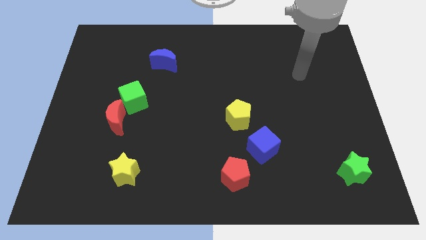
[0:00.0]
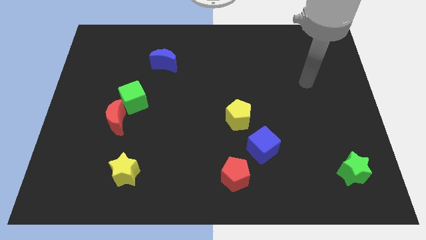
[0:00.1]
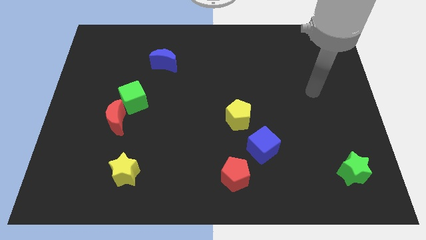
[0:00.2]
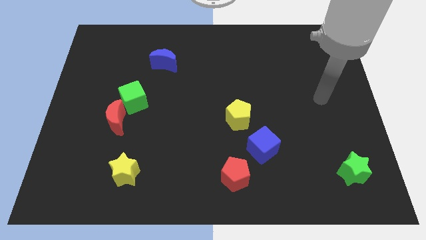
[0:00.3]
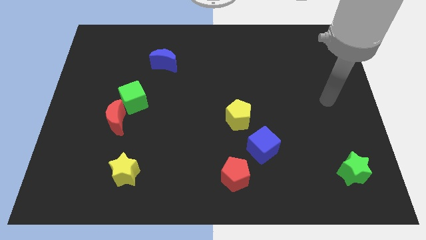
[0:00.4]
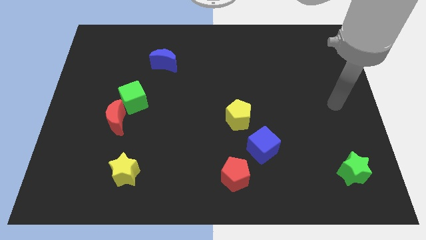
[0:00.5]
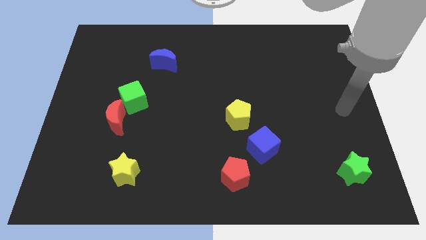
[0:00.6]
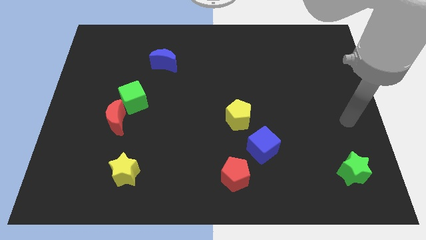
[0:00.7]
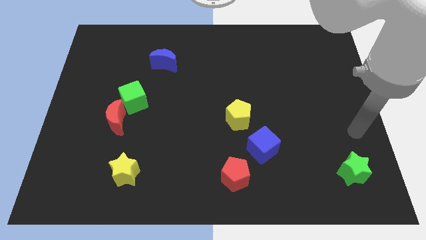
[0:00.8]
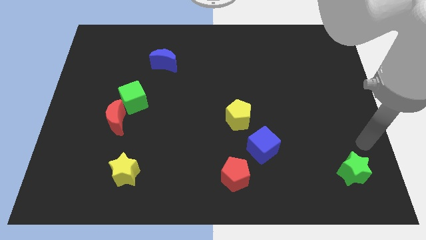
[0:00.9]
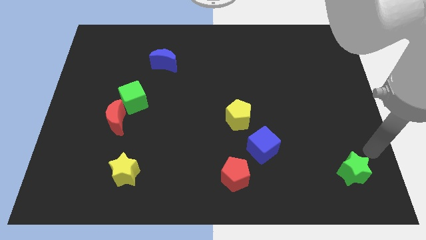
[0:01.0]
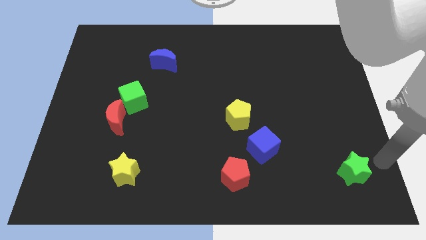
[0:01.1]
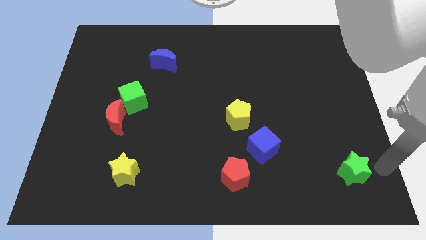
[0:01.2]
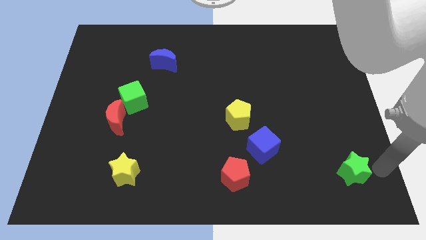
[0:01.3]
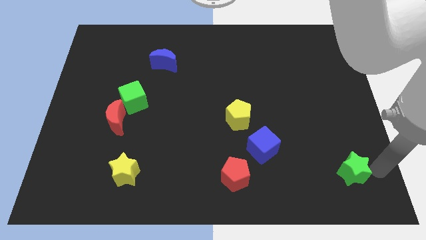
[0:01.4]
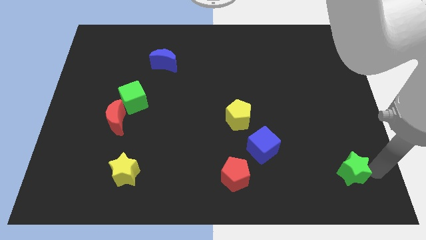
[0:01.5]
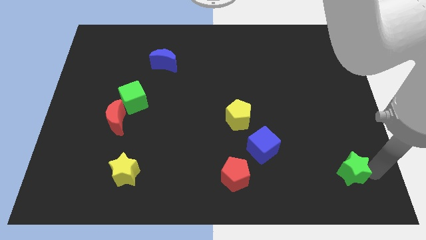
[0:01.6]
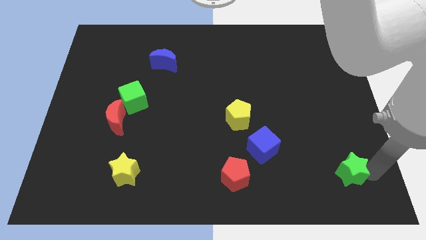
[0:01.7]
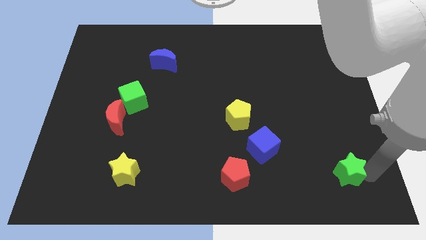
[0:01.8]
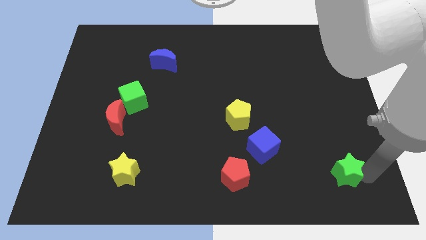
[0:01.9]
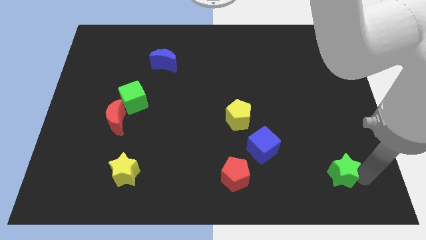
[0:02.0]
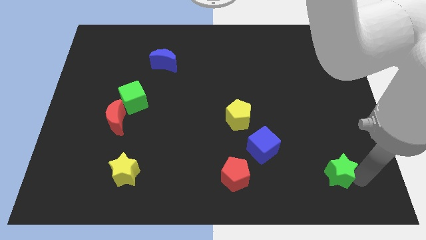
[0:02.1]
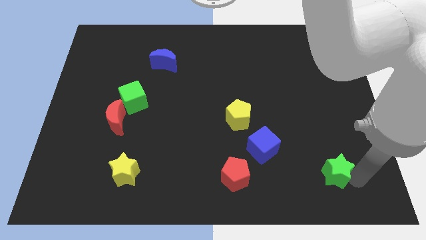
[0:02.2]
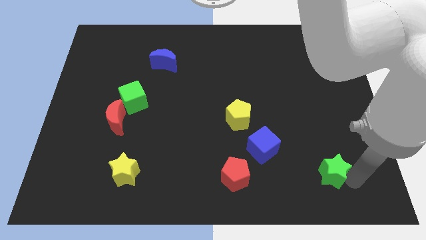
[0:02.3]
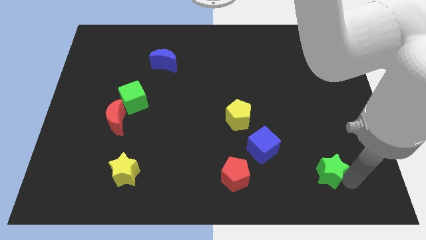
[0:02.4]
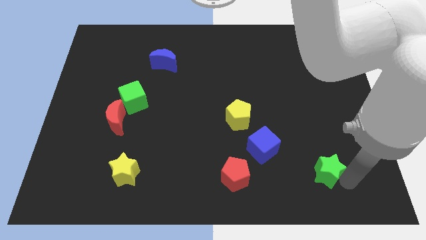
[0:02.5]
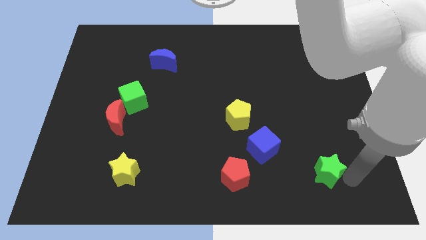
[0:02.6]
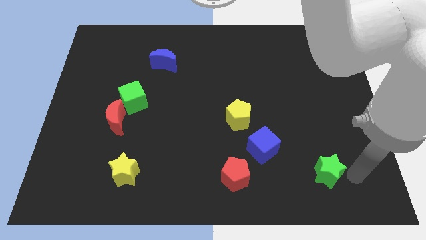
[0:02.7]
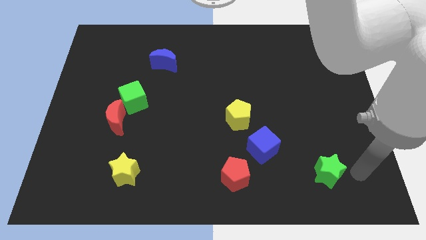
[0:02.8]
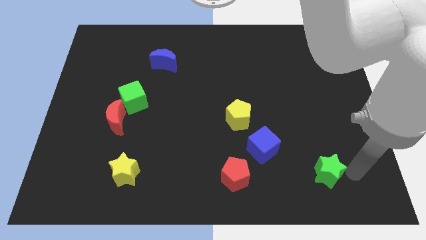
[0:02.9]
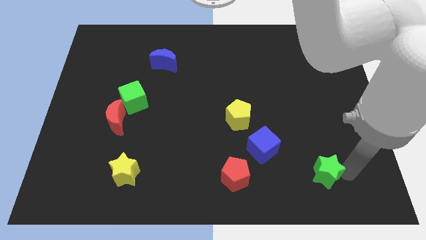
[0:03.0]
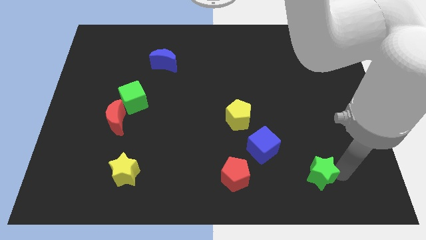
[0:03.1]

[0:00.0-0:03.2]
slide the green star a bit to the left

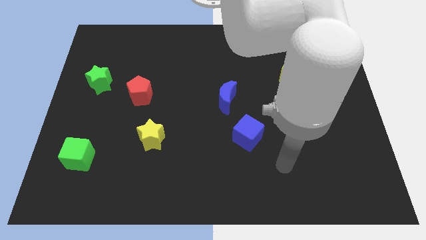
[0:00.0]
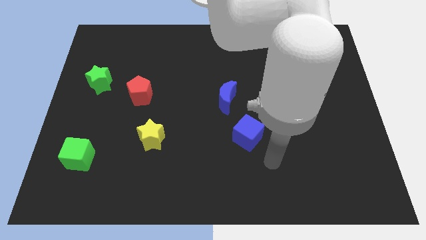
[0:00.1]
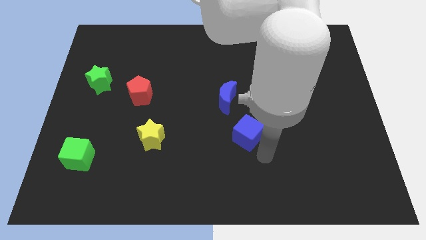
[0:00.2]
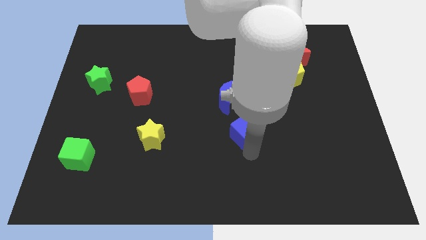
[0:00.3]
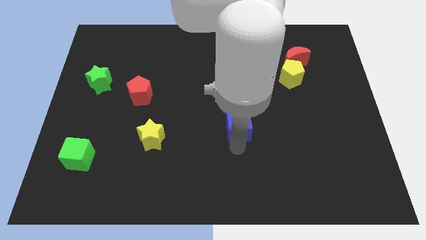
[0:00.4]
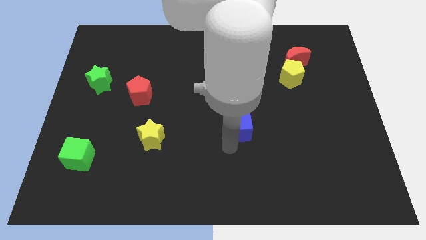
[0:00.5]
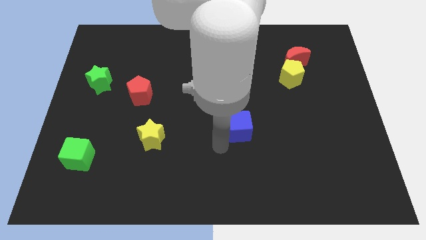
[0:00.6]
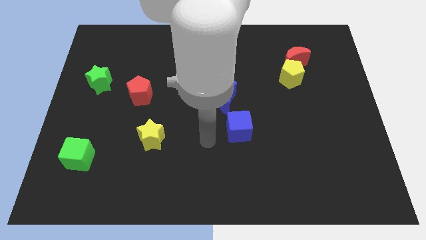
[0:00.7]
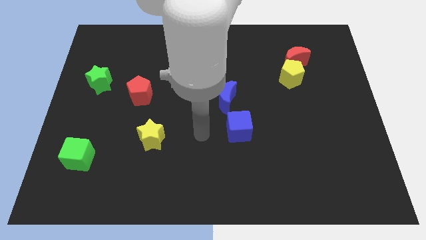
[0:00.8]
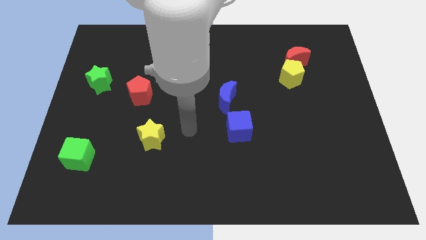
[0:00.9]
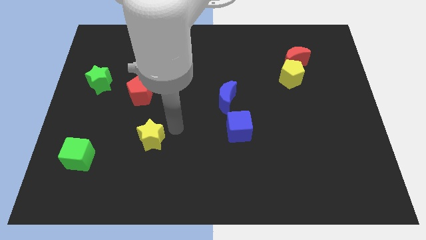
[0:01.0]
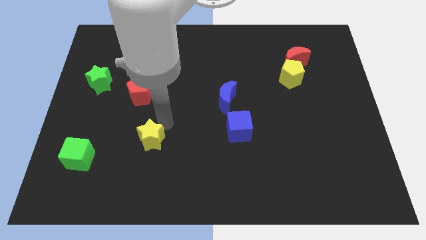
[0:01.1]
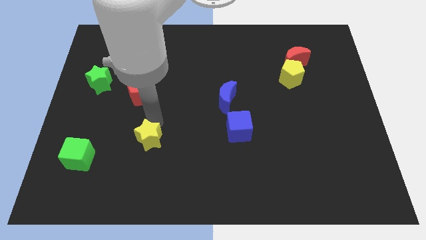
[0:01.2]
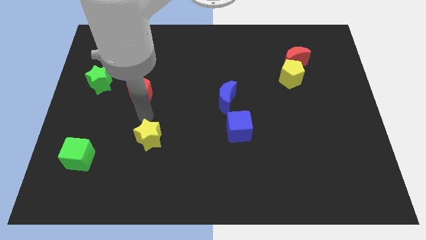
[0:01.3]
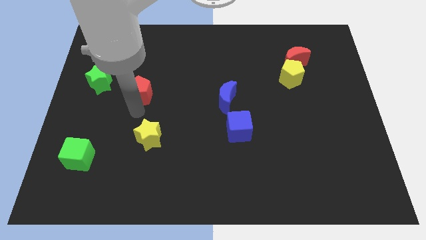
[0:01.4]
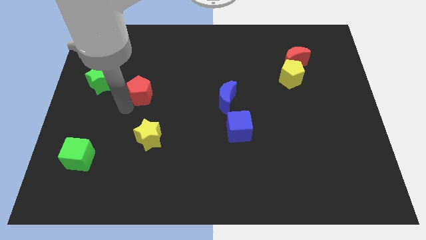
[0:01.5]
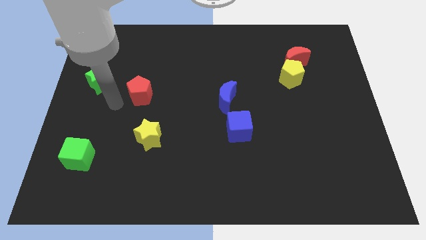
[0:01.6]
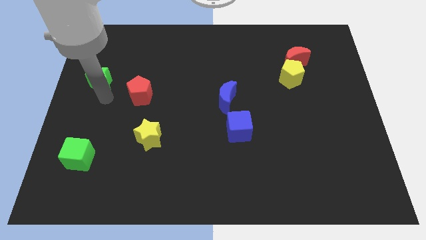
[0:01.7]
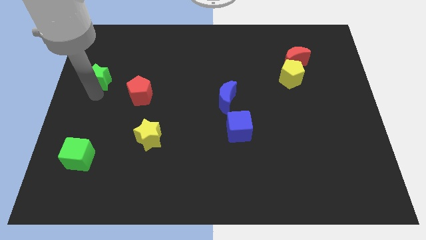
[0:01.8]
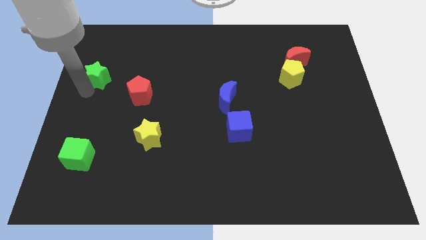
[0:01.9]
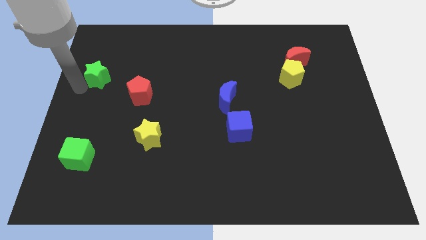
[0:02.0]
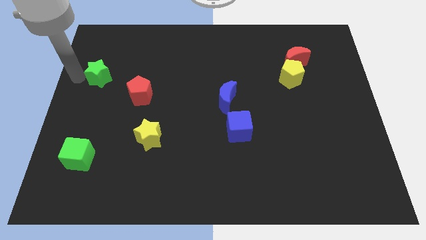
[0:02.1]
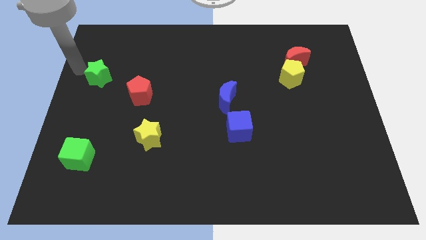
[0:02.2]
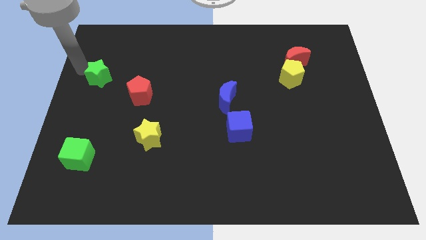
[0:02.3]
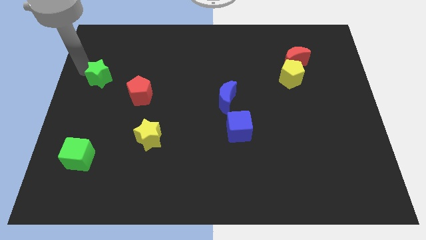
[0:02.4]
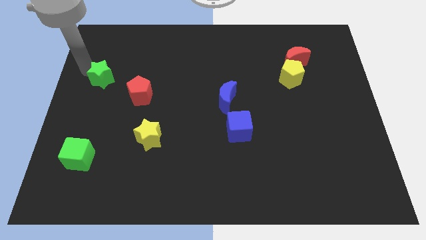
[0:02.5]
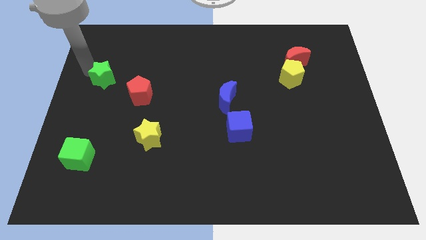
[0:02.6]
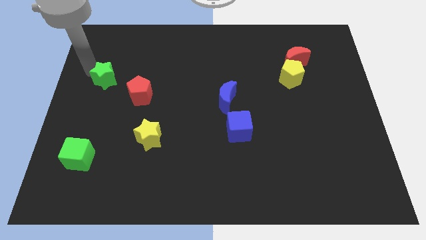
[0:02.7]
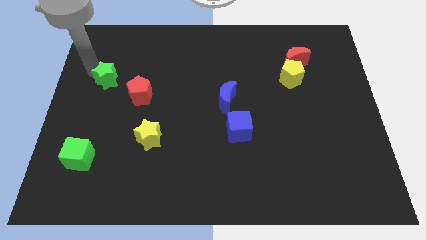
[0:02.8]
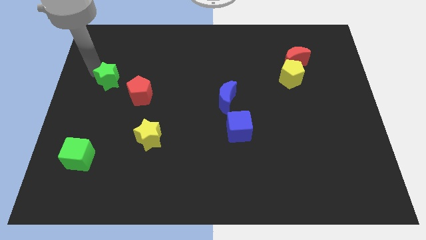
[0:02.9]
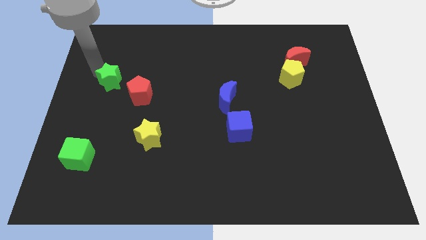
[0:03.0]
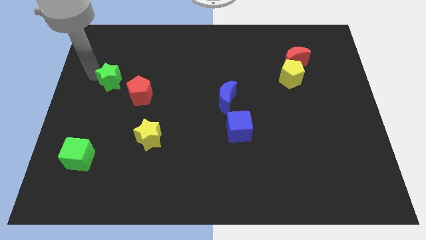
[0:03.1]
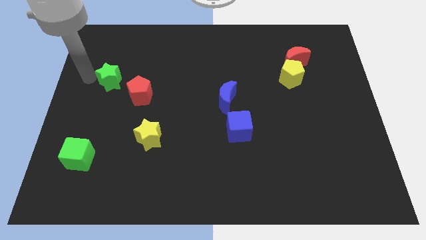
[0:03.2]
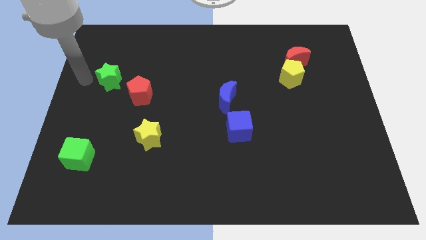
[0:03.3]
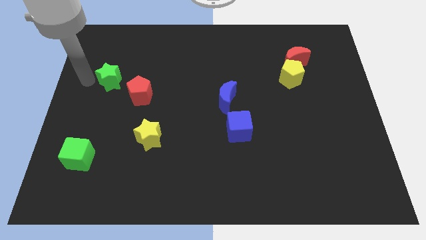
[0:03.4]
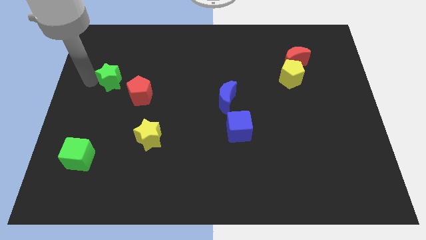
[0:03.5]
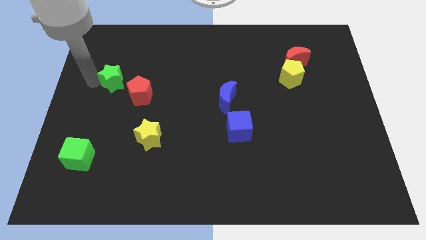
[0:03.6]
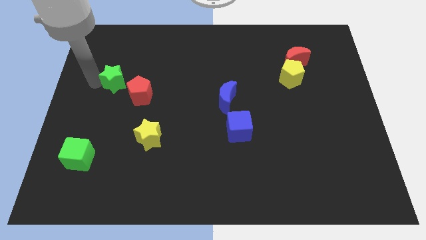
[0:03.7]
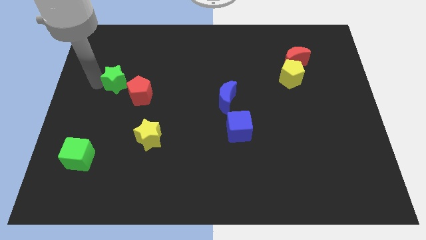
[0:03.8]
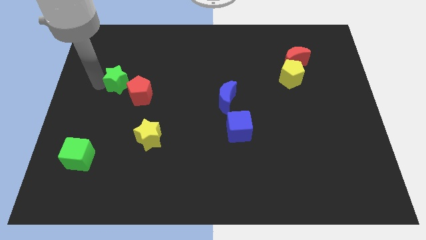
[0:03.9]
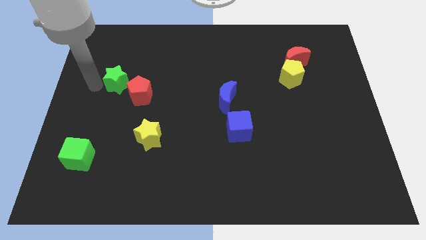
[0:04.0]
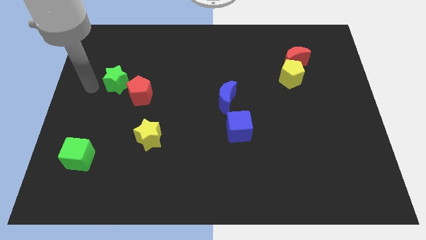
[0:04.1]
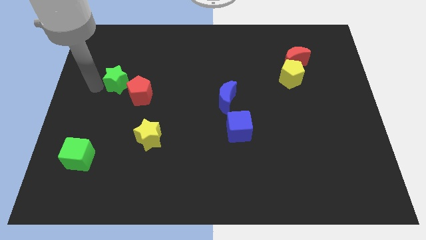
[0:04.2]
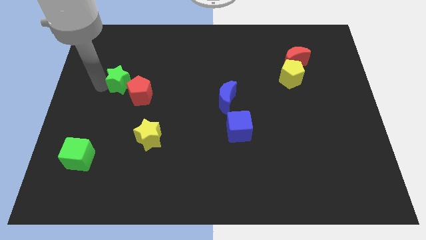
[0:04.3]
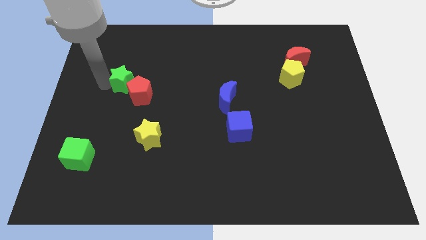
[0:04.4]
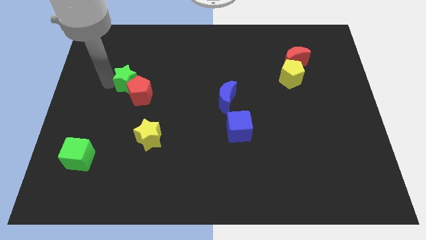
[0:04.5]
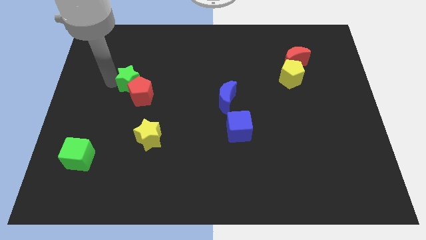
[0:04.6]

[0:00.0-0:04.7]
move the green star right a little bit
